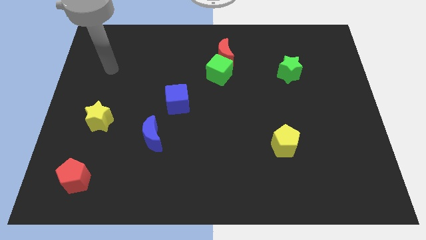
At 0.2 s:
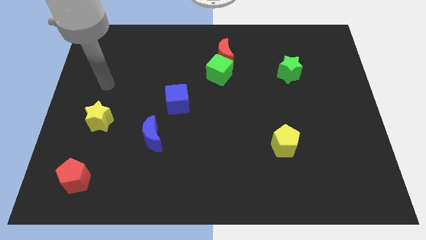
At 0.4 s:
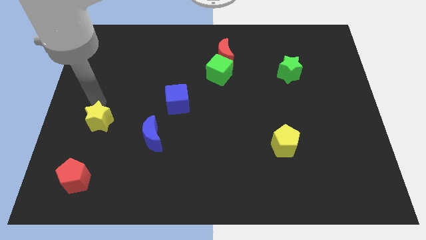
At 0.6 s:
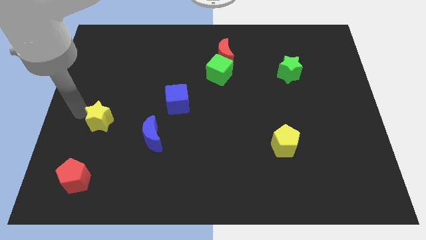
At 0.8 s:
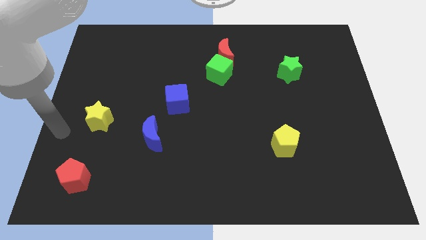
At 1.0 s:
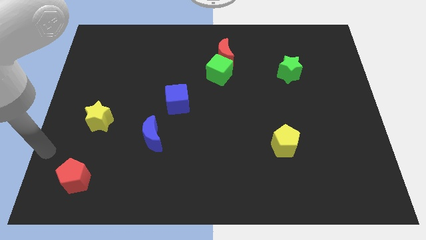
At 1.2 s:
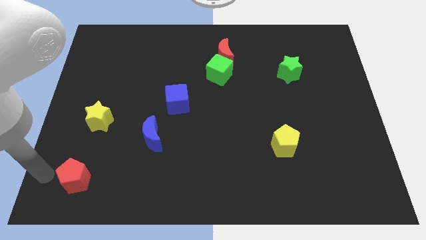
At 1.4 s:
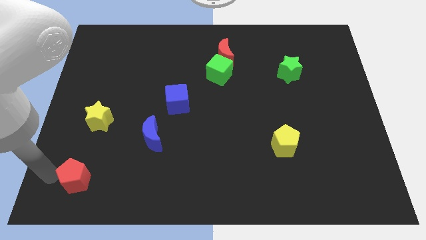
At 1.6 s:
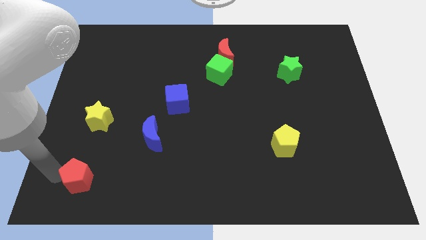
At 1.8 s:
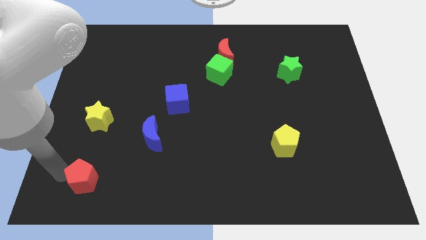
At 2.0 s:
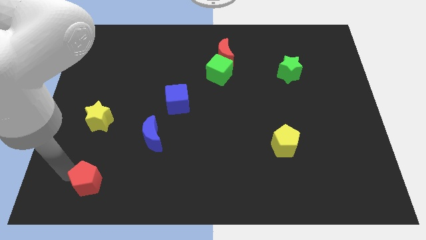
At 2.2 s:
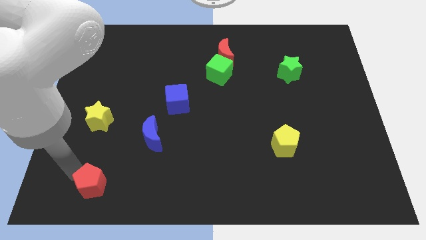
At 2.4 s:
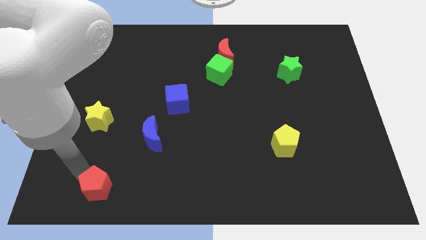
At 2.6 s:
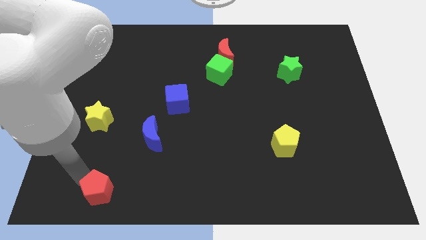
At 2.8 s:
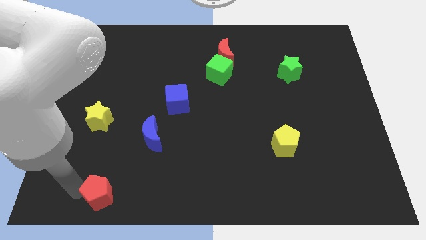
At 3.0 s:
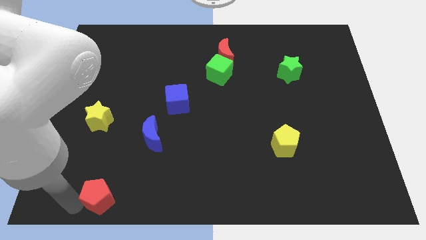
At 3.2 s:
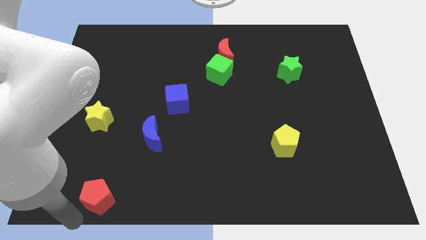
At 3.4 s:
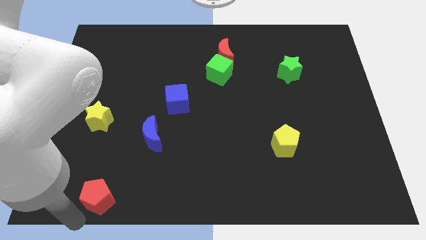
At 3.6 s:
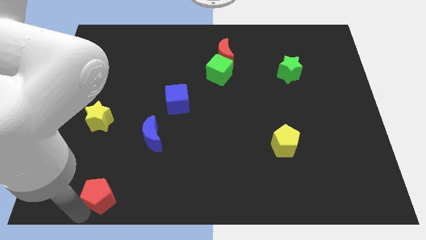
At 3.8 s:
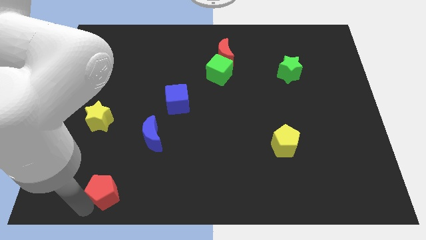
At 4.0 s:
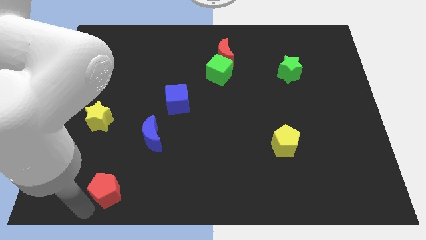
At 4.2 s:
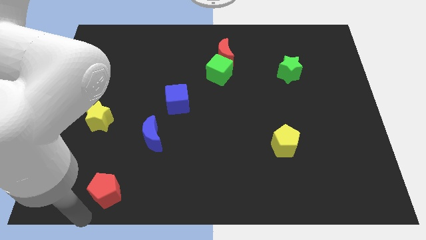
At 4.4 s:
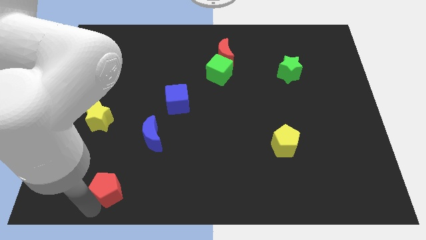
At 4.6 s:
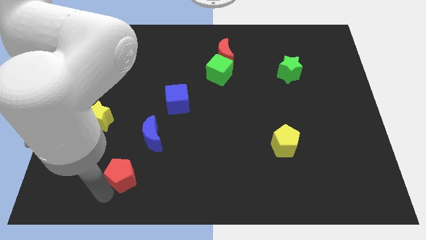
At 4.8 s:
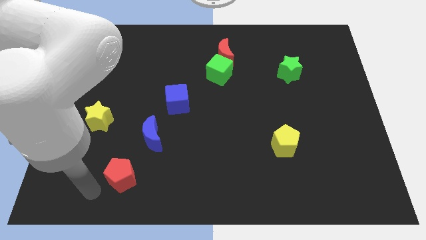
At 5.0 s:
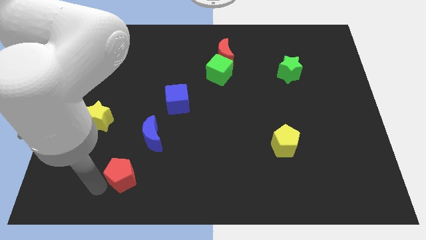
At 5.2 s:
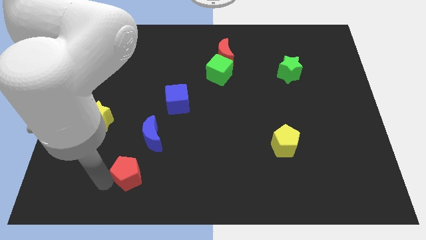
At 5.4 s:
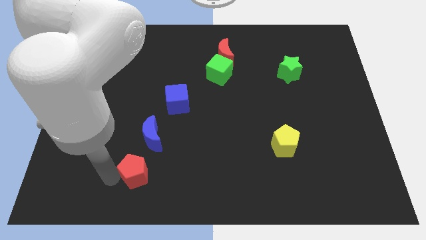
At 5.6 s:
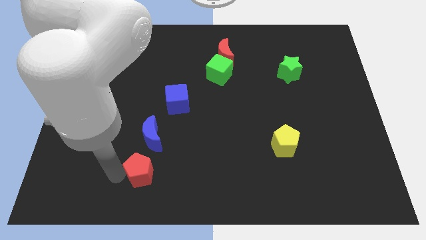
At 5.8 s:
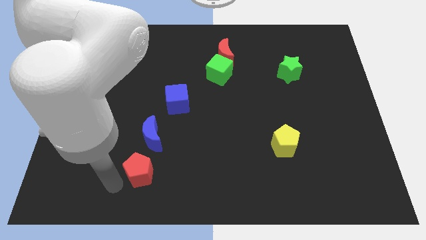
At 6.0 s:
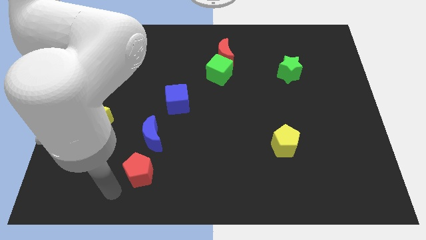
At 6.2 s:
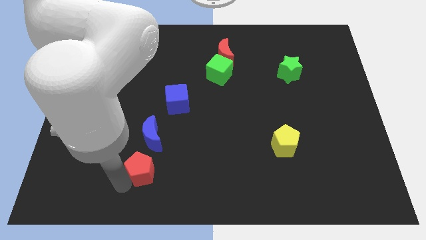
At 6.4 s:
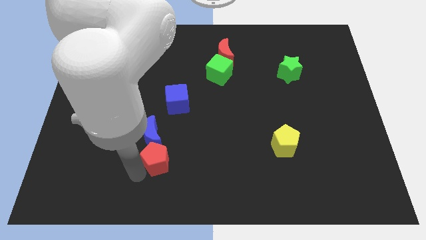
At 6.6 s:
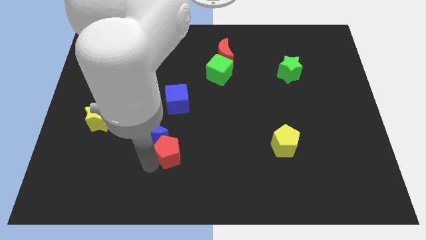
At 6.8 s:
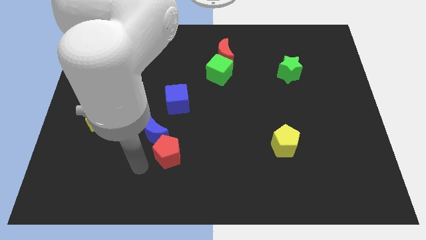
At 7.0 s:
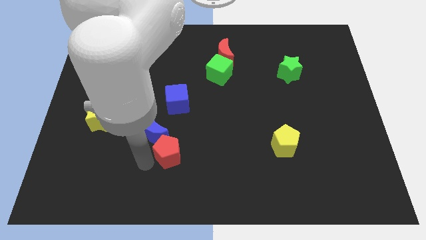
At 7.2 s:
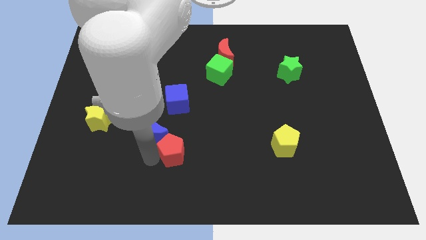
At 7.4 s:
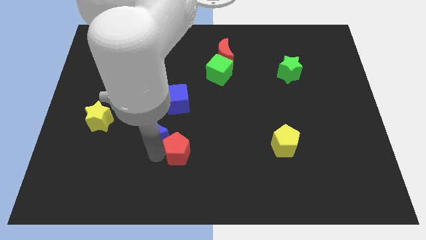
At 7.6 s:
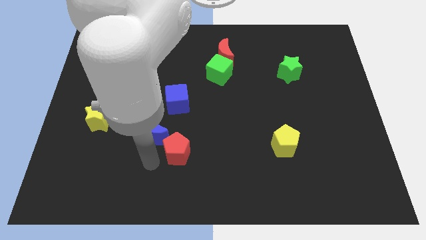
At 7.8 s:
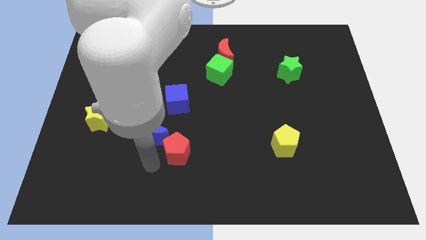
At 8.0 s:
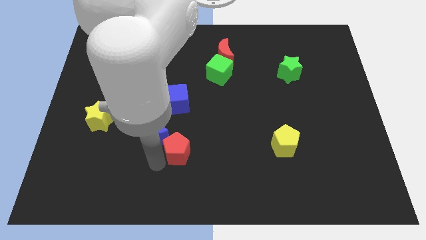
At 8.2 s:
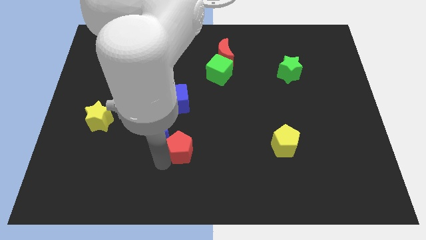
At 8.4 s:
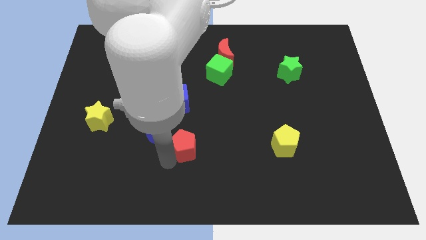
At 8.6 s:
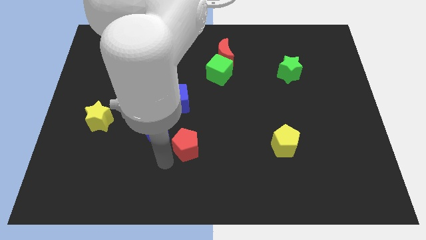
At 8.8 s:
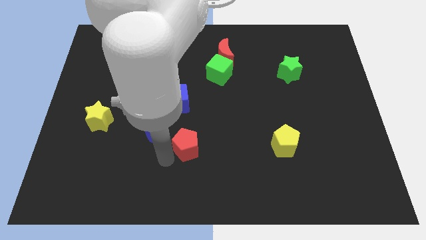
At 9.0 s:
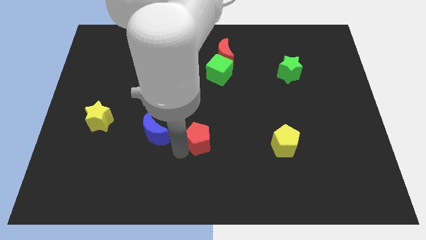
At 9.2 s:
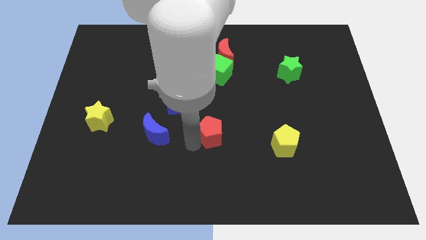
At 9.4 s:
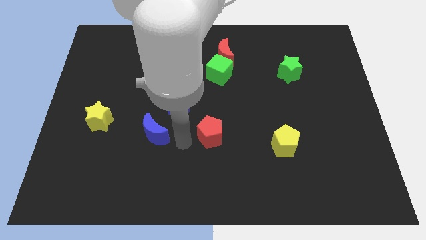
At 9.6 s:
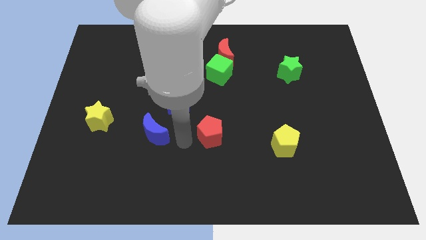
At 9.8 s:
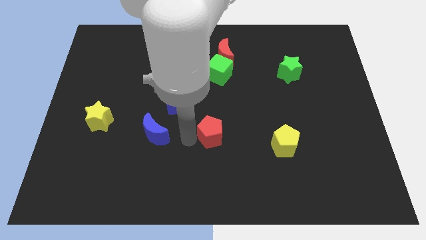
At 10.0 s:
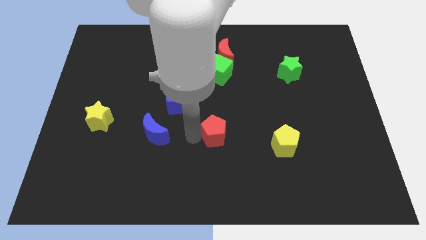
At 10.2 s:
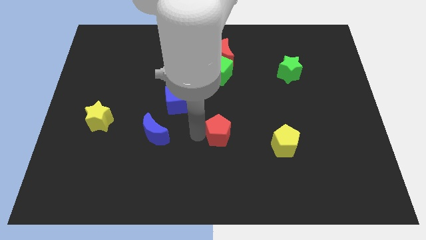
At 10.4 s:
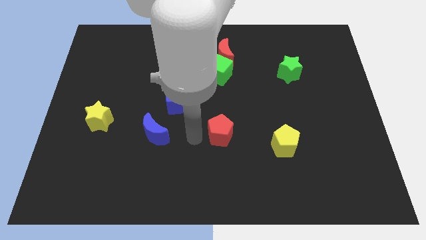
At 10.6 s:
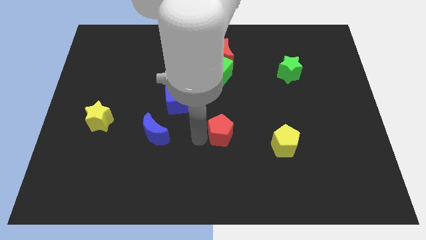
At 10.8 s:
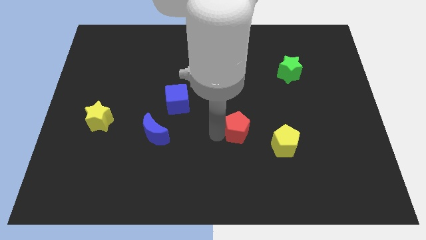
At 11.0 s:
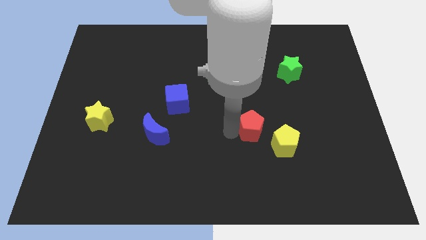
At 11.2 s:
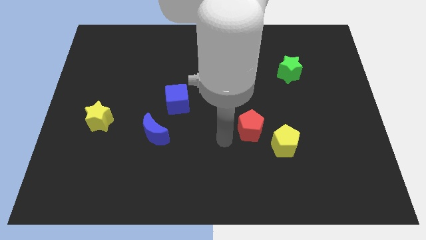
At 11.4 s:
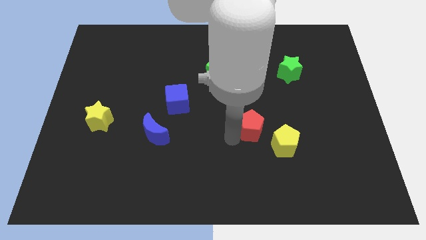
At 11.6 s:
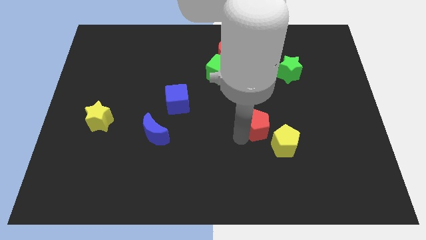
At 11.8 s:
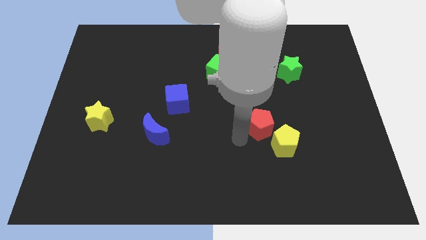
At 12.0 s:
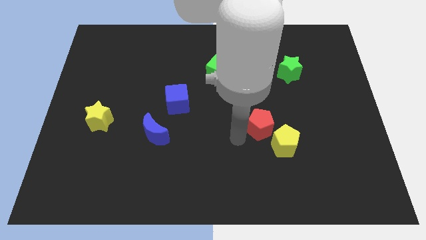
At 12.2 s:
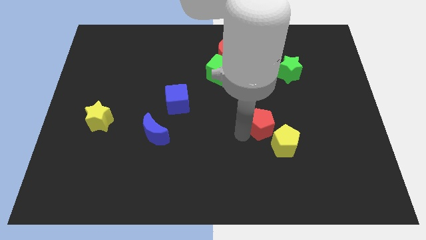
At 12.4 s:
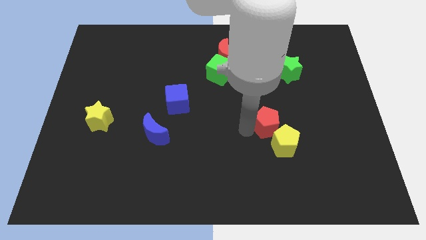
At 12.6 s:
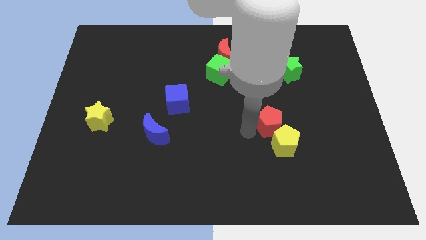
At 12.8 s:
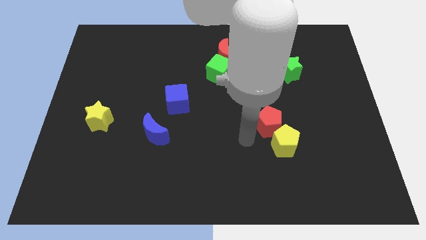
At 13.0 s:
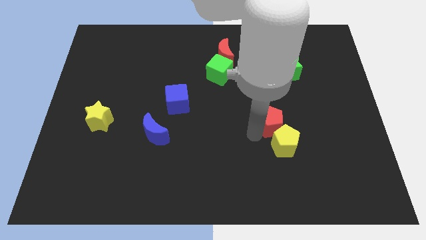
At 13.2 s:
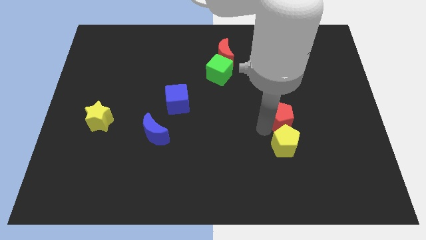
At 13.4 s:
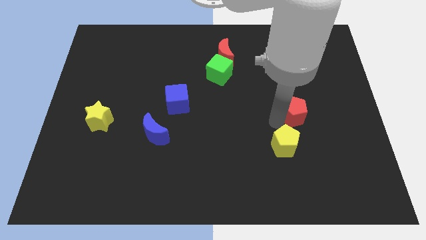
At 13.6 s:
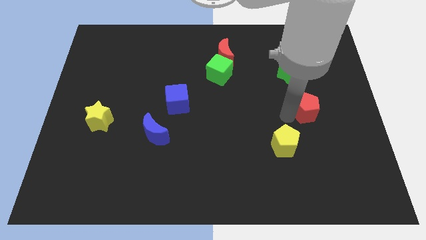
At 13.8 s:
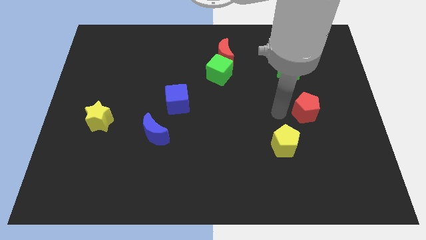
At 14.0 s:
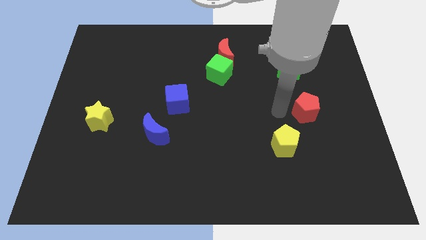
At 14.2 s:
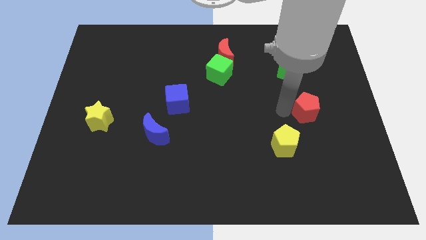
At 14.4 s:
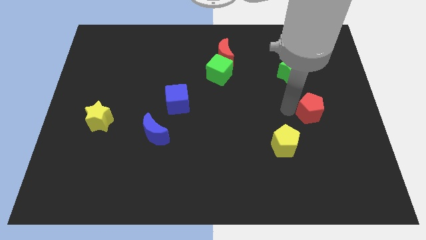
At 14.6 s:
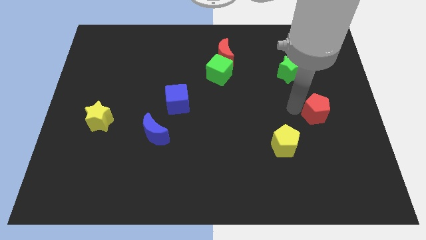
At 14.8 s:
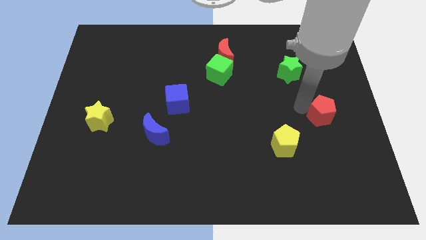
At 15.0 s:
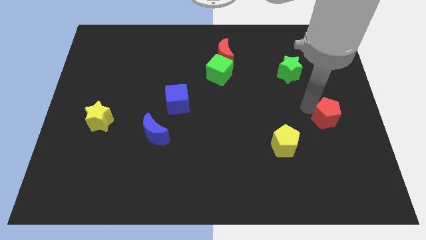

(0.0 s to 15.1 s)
put the red pentagon to the right side of the board
